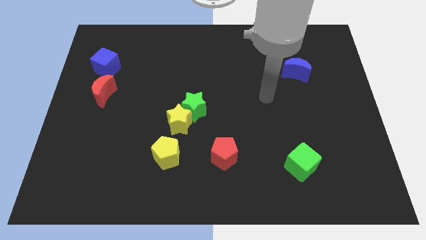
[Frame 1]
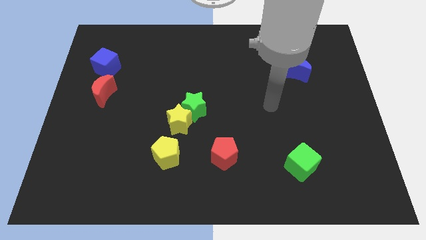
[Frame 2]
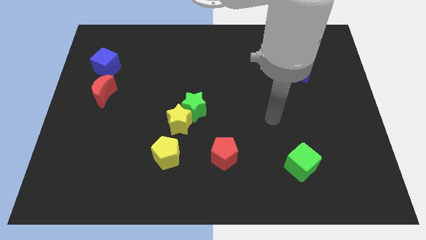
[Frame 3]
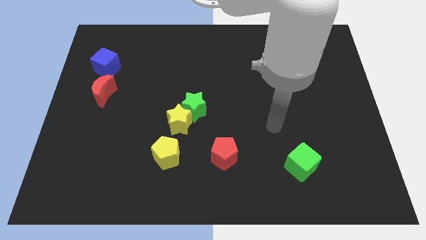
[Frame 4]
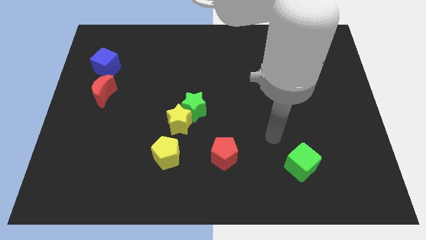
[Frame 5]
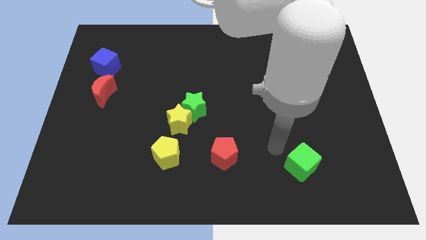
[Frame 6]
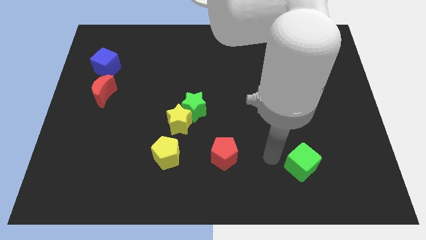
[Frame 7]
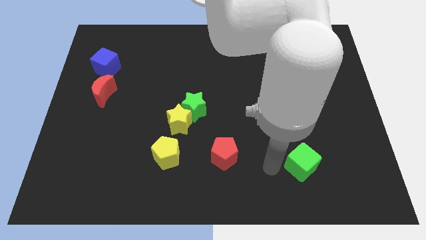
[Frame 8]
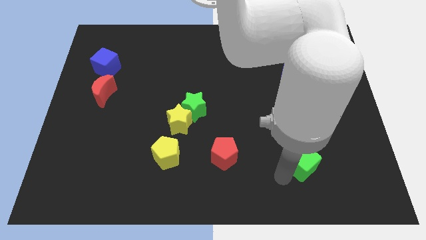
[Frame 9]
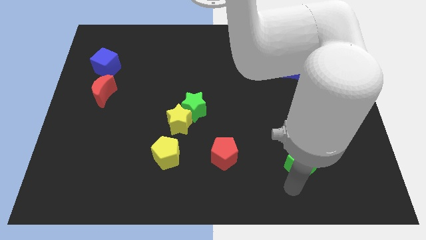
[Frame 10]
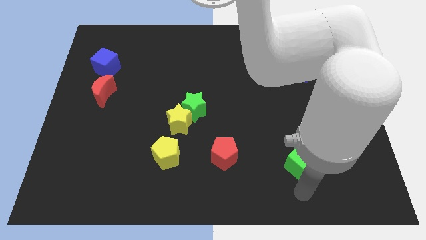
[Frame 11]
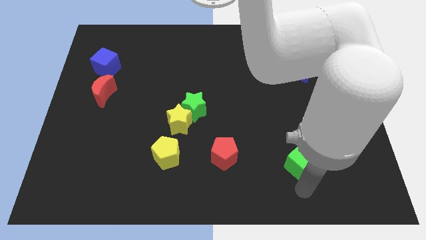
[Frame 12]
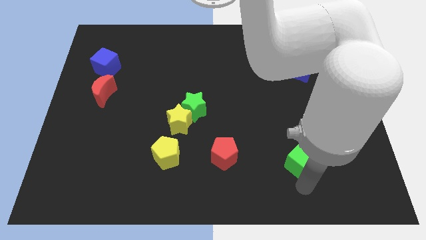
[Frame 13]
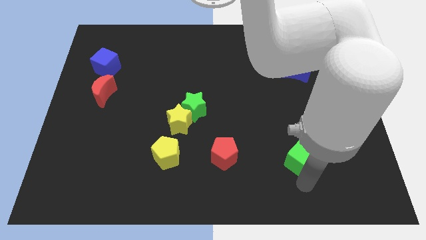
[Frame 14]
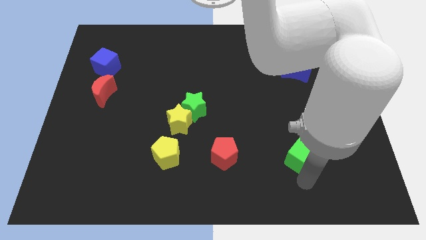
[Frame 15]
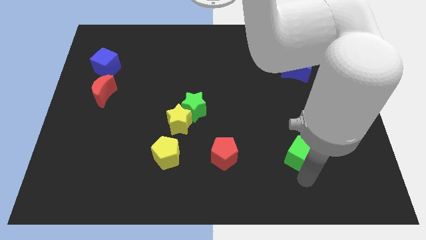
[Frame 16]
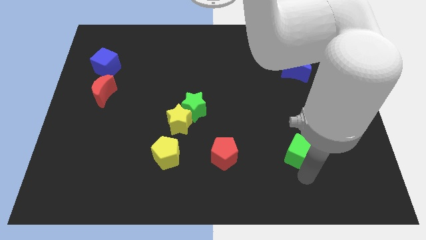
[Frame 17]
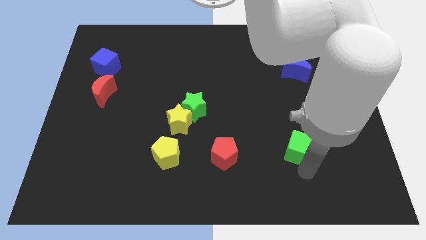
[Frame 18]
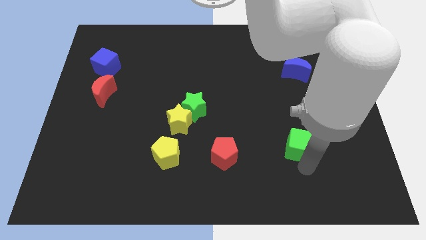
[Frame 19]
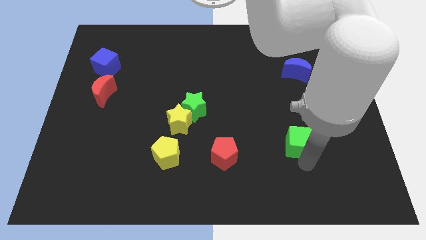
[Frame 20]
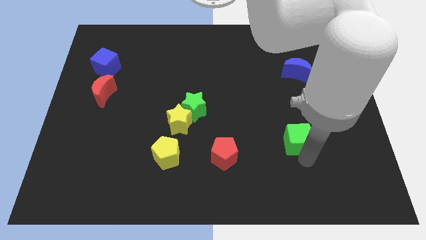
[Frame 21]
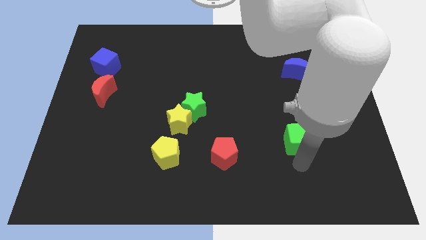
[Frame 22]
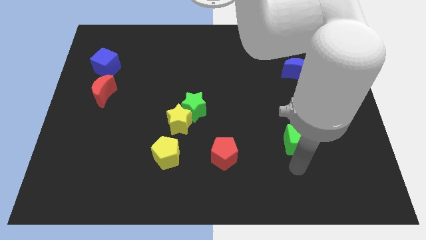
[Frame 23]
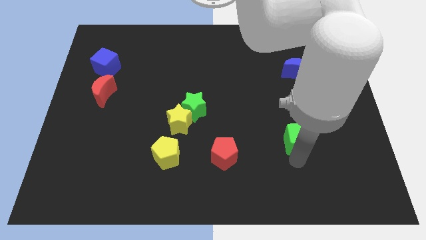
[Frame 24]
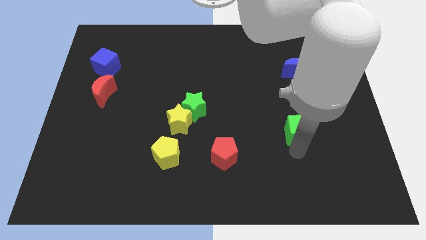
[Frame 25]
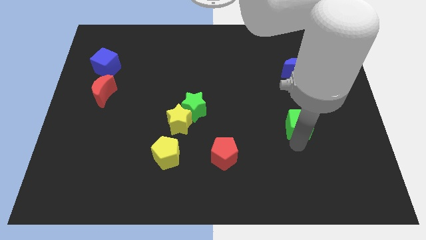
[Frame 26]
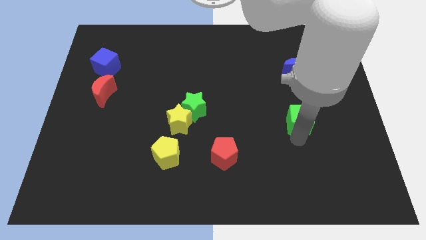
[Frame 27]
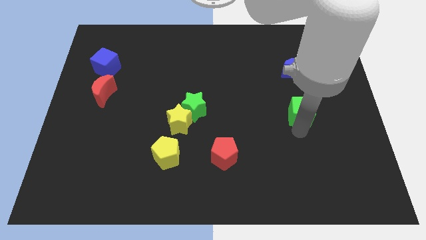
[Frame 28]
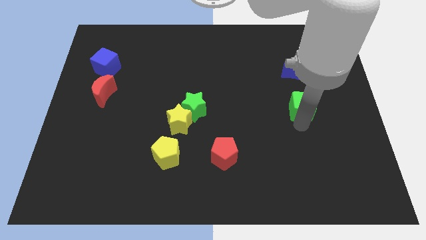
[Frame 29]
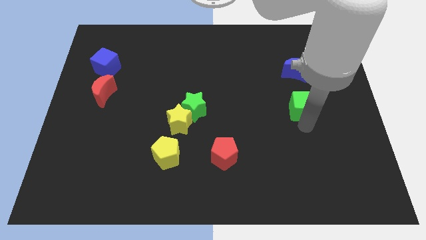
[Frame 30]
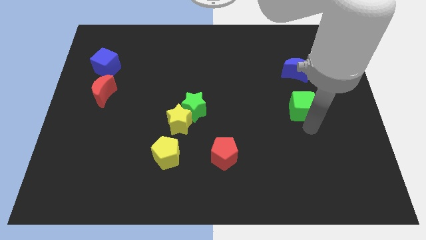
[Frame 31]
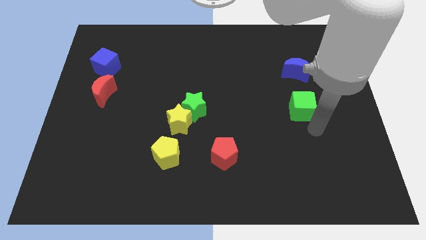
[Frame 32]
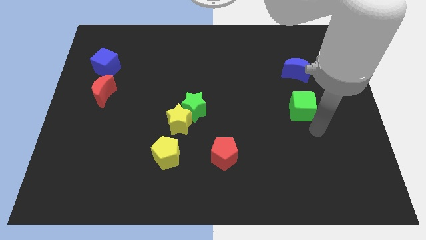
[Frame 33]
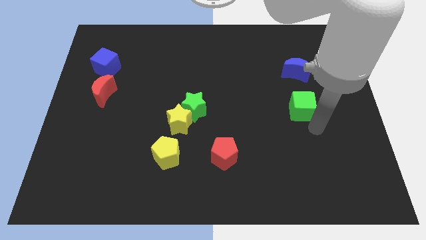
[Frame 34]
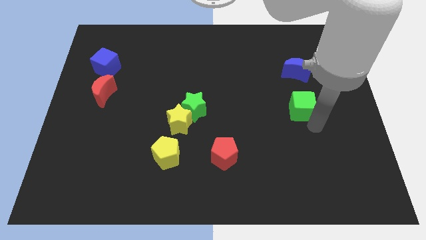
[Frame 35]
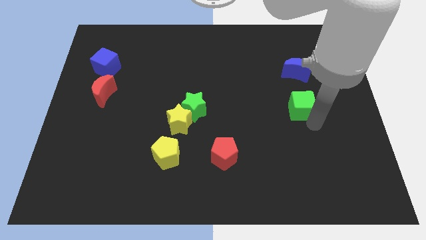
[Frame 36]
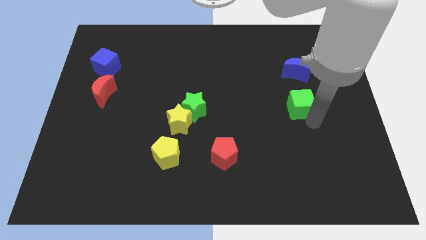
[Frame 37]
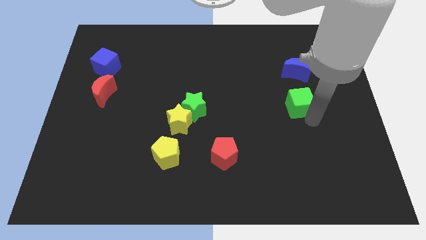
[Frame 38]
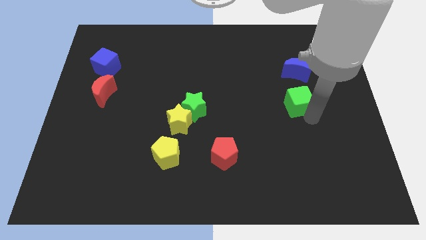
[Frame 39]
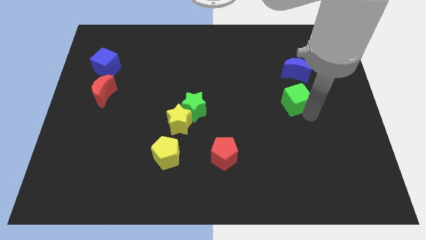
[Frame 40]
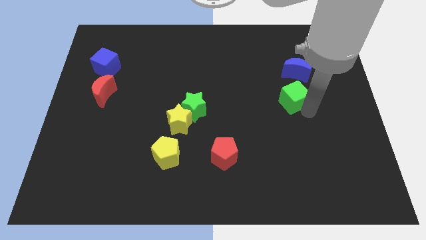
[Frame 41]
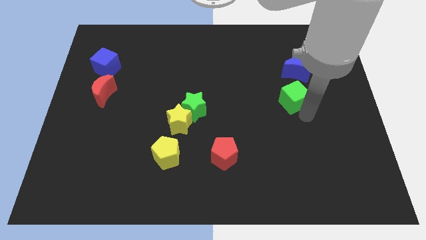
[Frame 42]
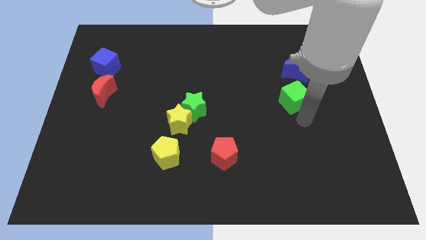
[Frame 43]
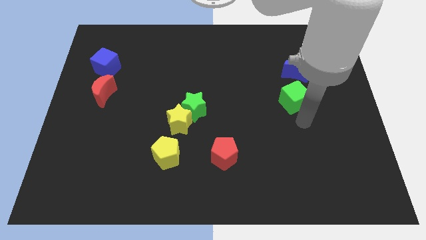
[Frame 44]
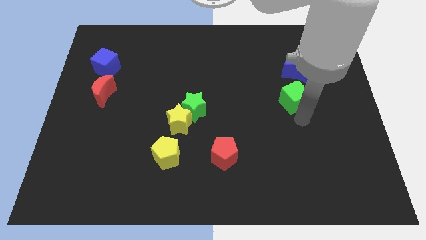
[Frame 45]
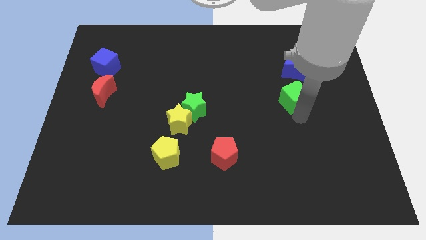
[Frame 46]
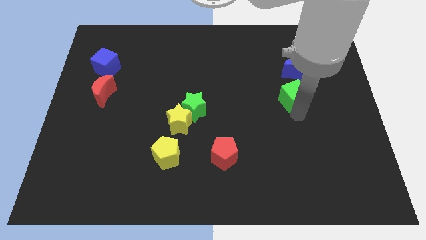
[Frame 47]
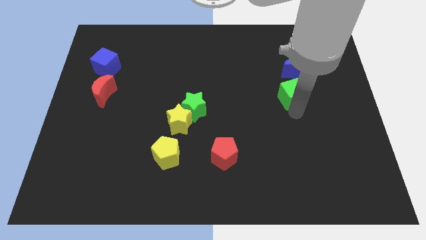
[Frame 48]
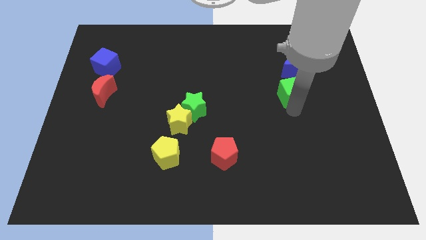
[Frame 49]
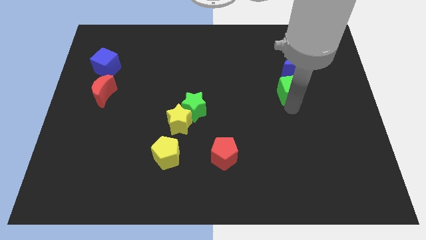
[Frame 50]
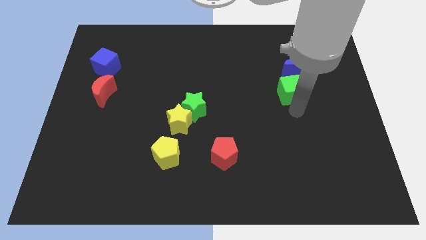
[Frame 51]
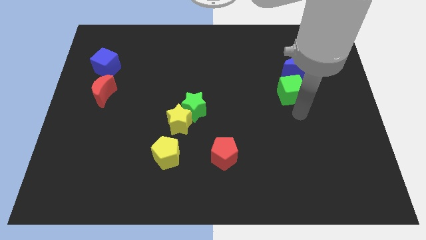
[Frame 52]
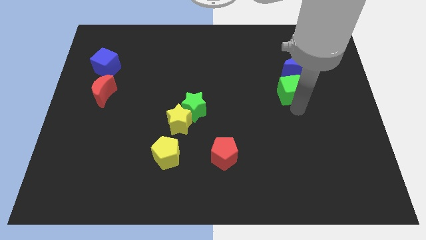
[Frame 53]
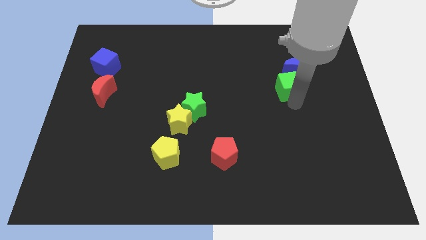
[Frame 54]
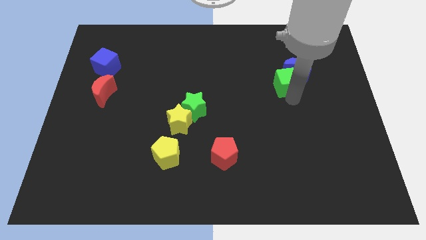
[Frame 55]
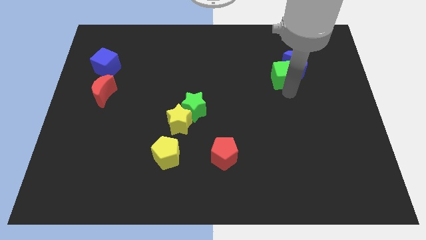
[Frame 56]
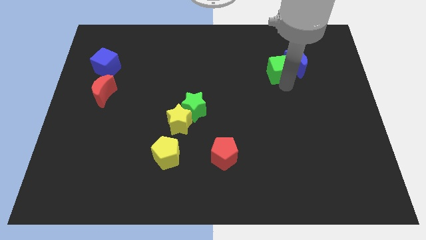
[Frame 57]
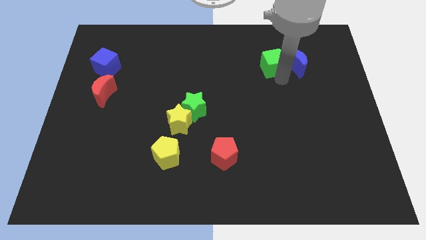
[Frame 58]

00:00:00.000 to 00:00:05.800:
slide the green cube to the top left of the blue moon
